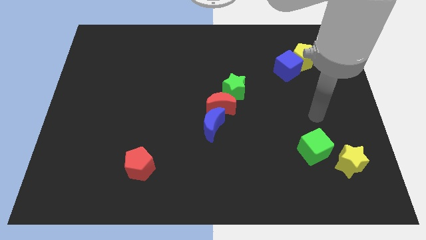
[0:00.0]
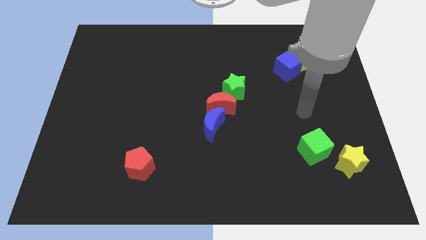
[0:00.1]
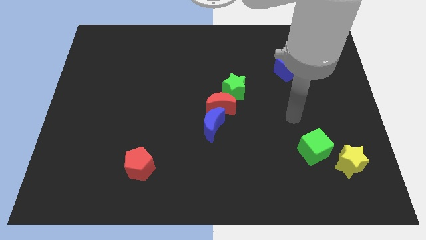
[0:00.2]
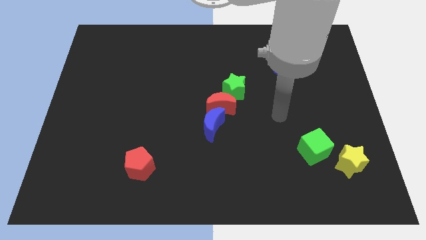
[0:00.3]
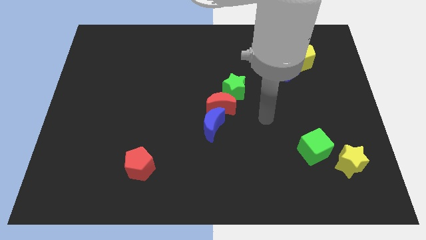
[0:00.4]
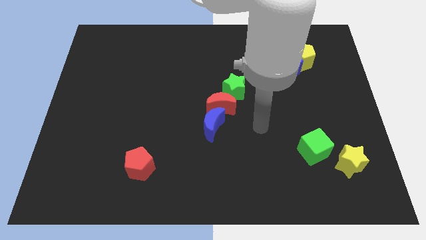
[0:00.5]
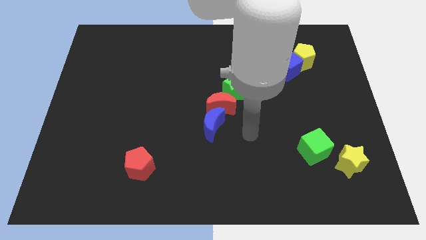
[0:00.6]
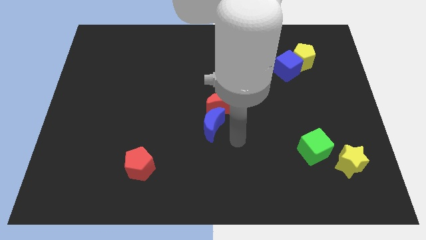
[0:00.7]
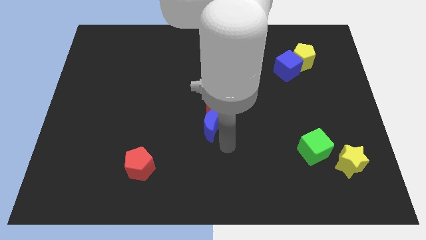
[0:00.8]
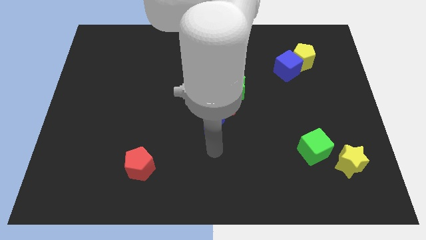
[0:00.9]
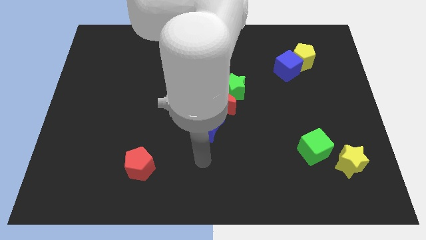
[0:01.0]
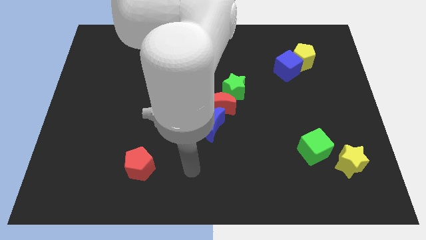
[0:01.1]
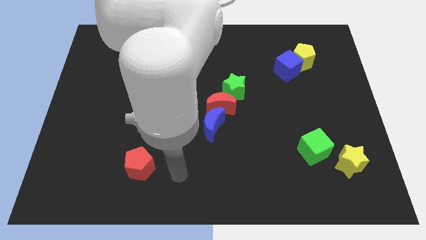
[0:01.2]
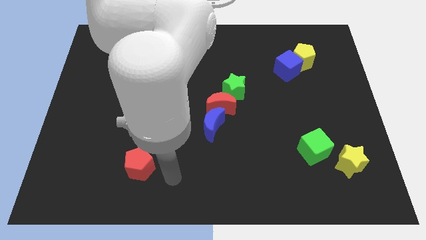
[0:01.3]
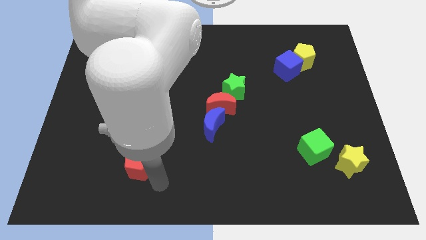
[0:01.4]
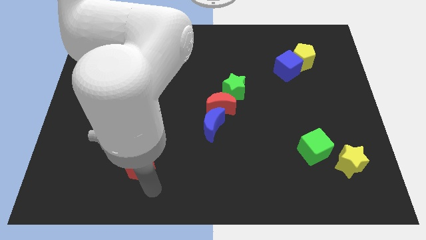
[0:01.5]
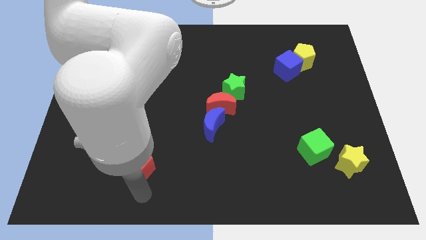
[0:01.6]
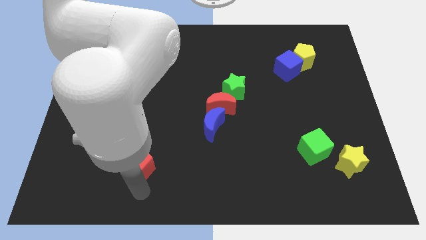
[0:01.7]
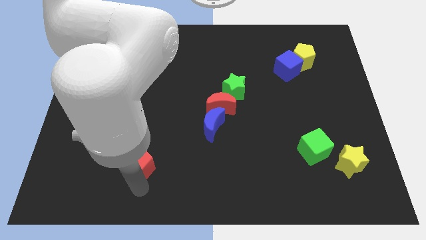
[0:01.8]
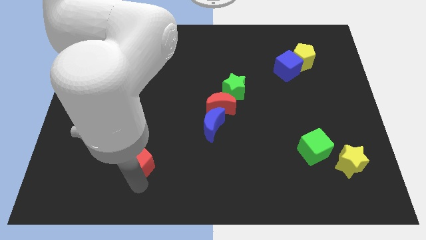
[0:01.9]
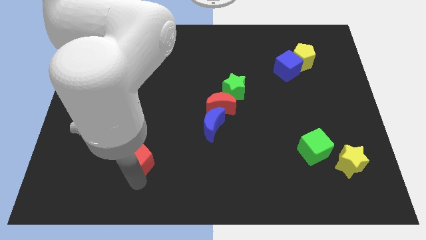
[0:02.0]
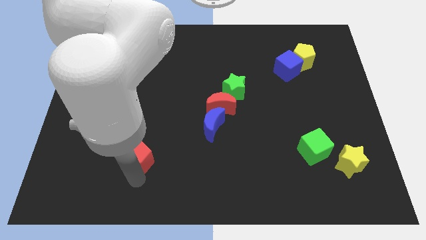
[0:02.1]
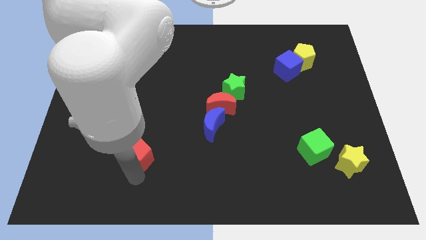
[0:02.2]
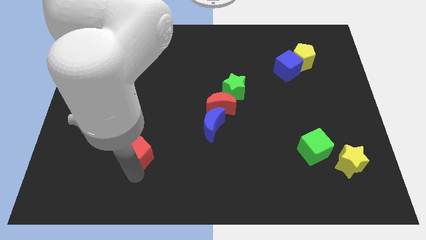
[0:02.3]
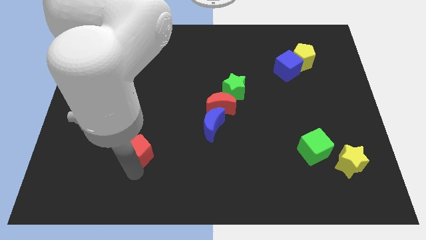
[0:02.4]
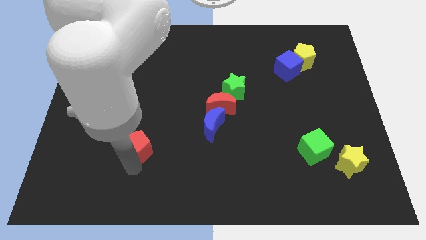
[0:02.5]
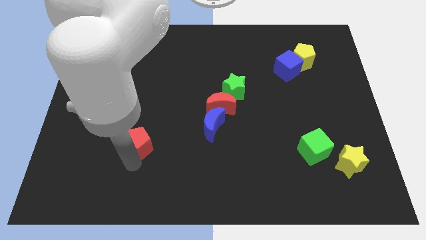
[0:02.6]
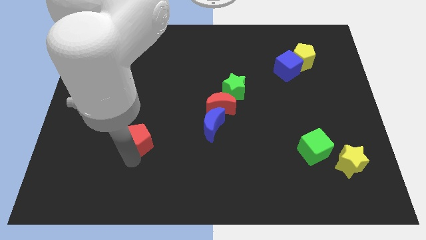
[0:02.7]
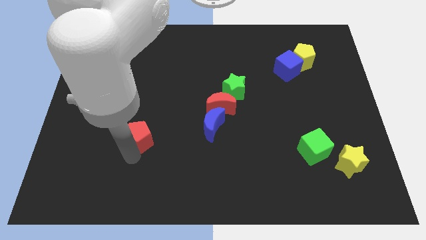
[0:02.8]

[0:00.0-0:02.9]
slide the red pentagon upwards slightly

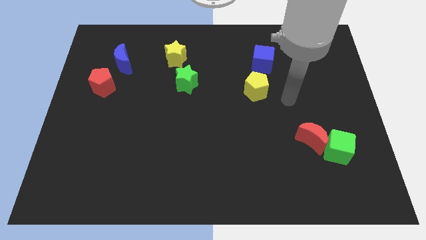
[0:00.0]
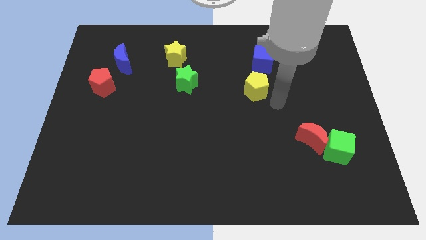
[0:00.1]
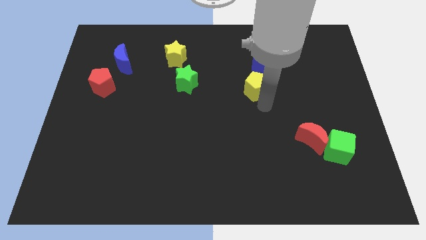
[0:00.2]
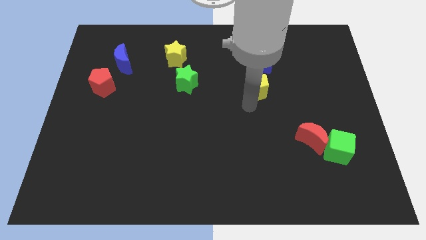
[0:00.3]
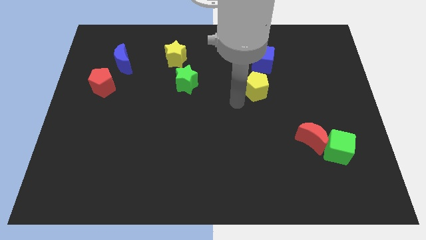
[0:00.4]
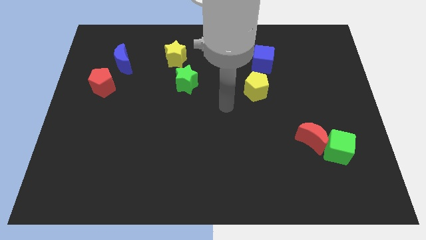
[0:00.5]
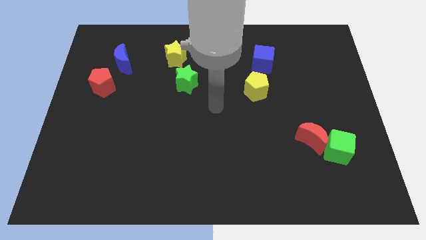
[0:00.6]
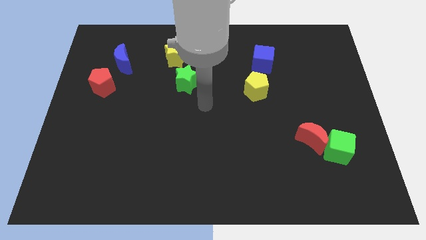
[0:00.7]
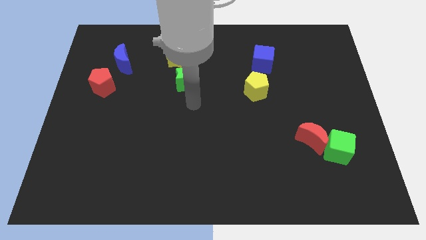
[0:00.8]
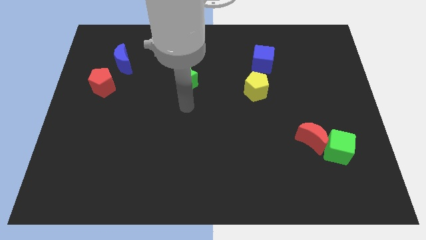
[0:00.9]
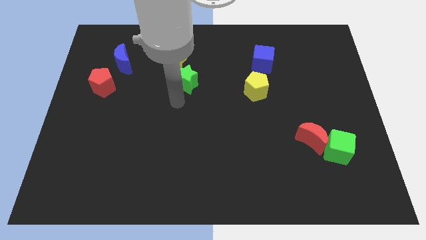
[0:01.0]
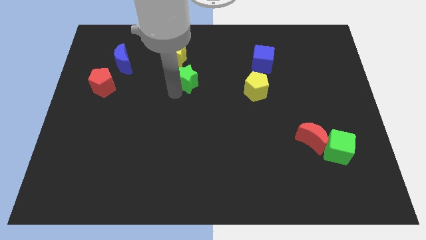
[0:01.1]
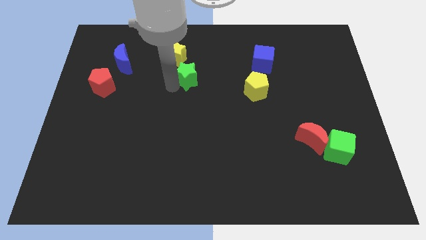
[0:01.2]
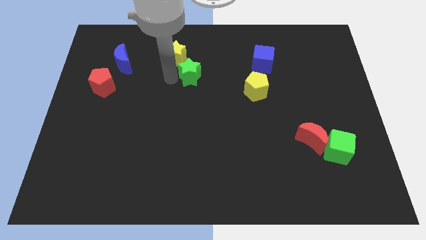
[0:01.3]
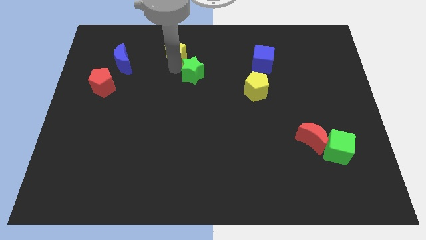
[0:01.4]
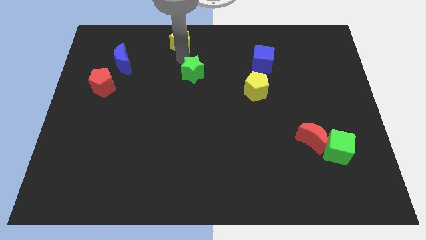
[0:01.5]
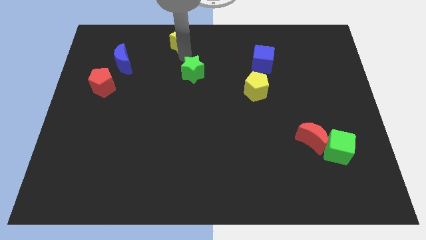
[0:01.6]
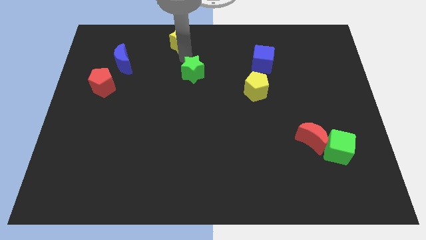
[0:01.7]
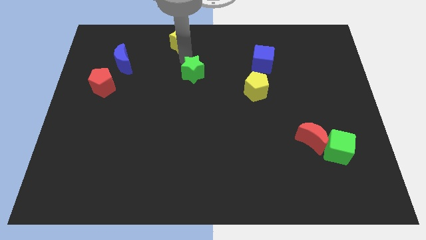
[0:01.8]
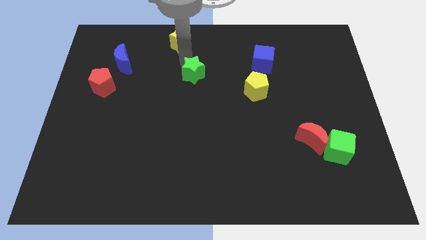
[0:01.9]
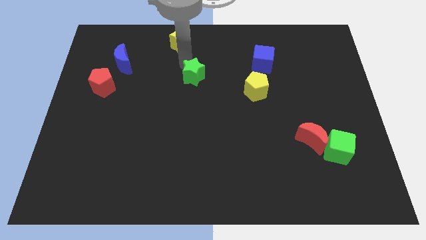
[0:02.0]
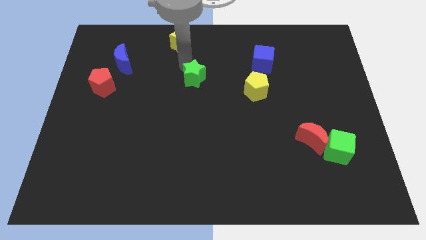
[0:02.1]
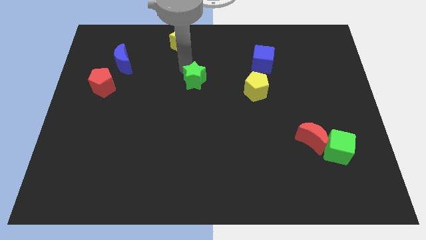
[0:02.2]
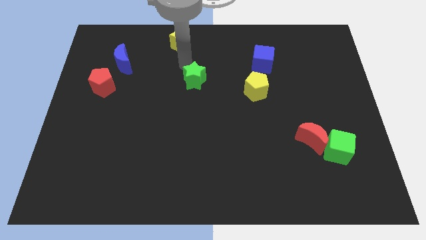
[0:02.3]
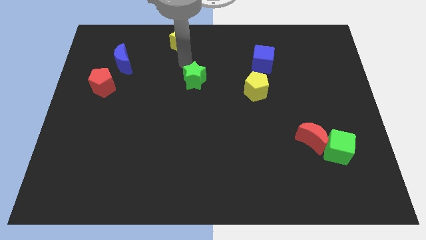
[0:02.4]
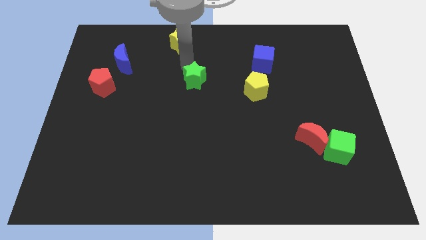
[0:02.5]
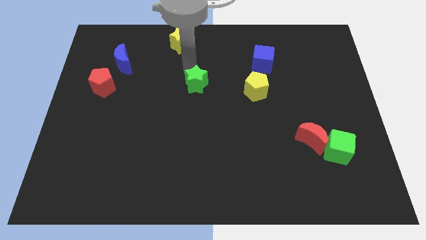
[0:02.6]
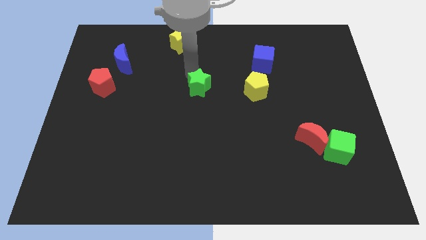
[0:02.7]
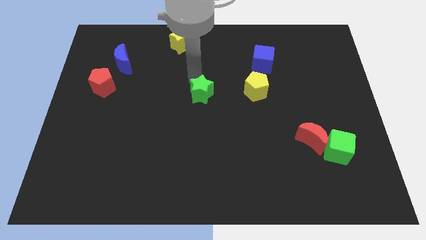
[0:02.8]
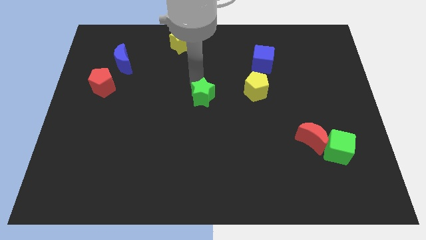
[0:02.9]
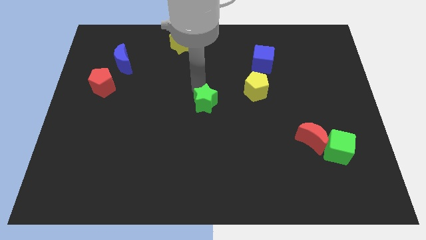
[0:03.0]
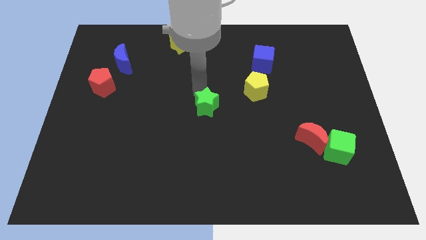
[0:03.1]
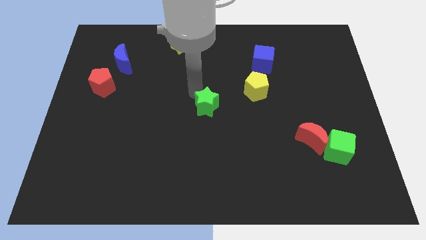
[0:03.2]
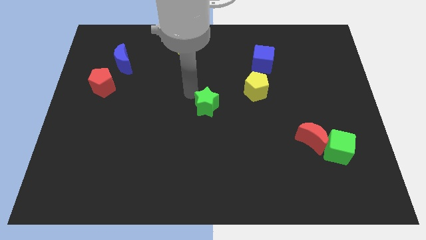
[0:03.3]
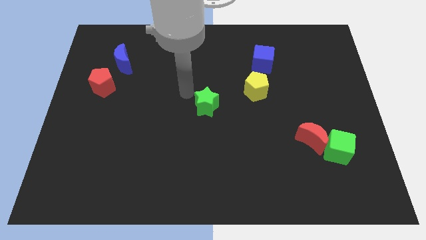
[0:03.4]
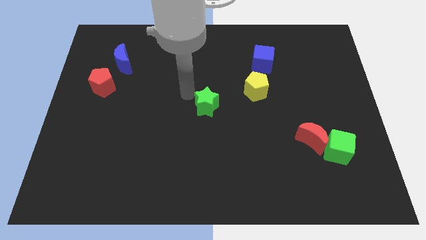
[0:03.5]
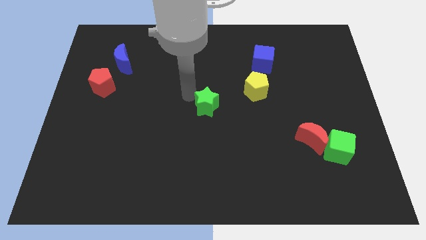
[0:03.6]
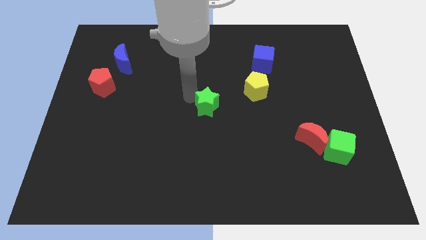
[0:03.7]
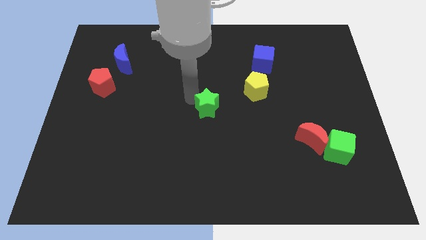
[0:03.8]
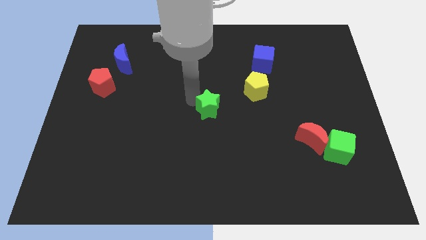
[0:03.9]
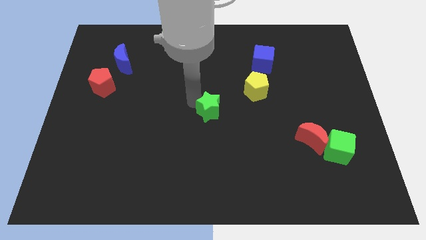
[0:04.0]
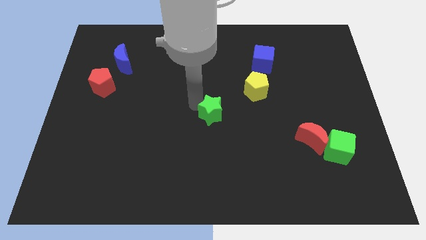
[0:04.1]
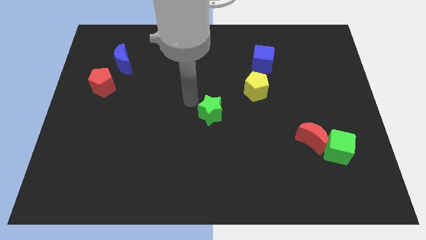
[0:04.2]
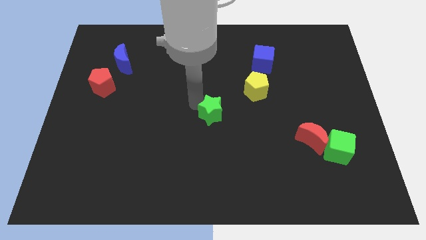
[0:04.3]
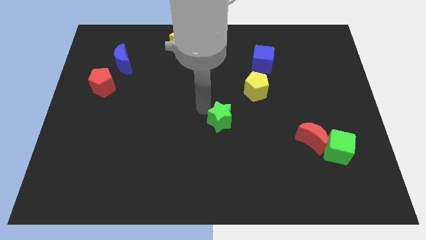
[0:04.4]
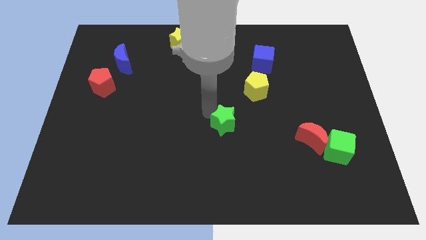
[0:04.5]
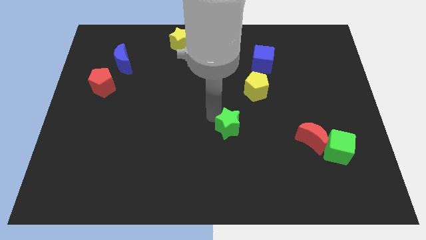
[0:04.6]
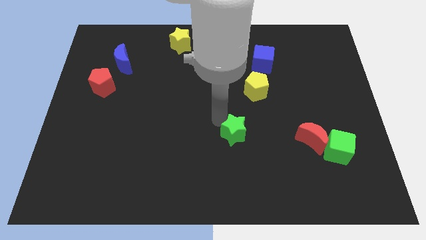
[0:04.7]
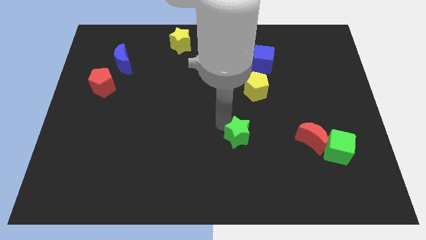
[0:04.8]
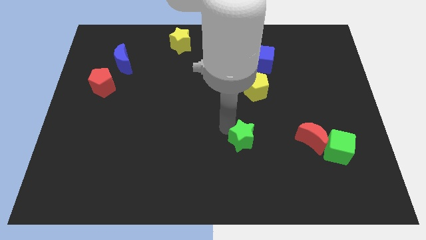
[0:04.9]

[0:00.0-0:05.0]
push the green star diagonally down and to the right

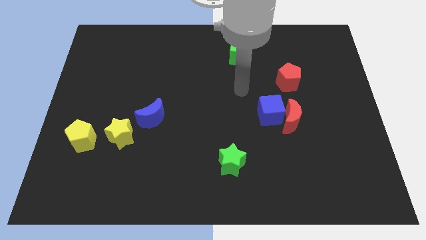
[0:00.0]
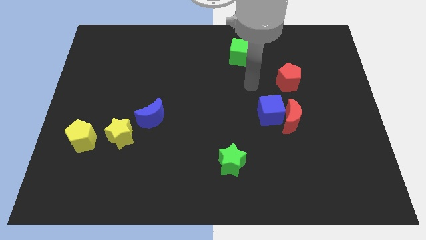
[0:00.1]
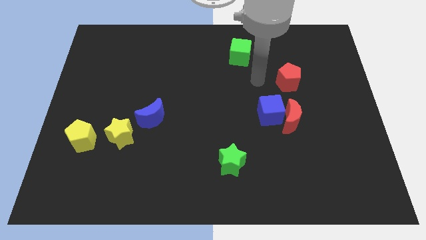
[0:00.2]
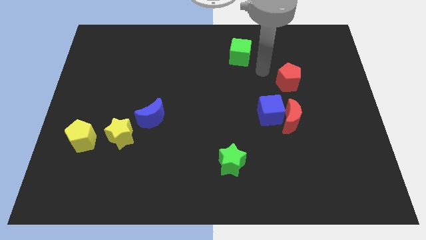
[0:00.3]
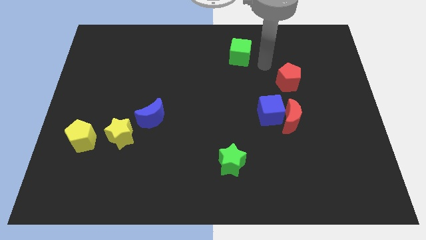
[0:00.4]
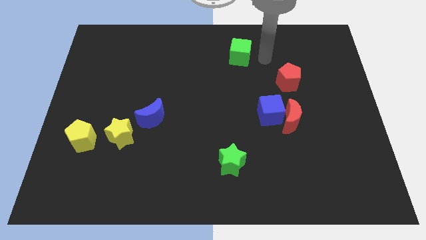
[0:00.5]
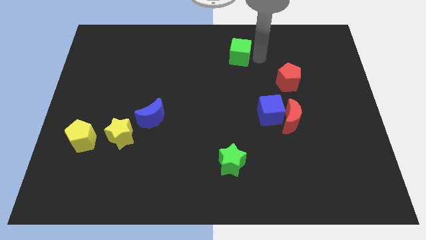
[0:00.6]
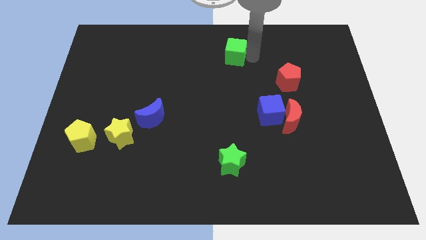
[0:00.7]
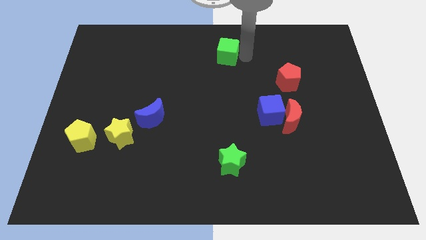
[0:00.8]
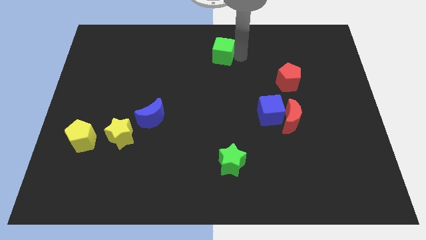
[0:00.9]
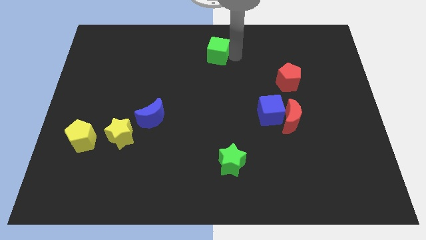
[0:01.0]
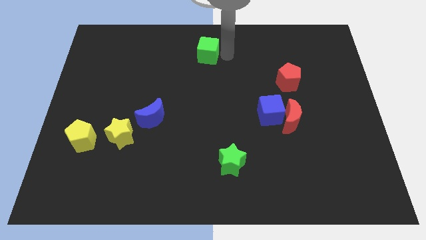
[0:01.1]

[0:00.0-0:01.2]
slightly move the green cube left
